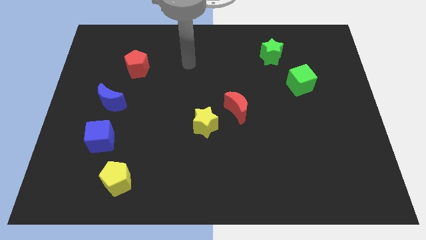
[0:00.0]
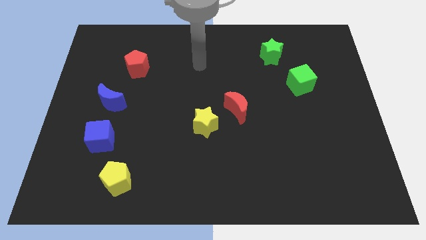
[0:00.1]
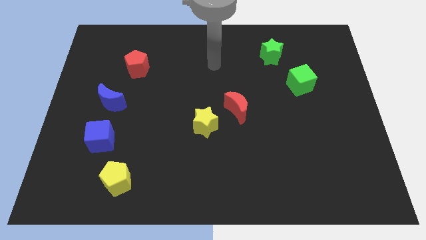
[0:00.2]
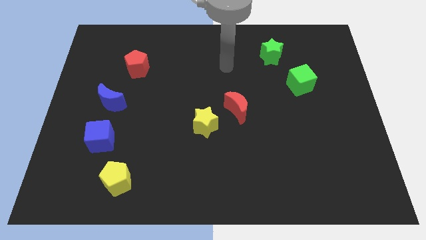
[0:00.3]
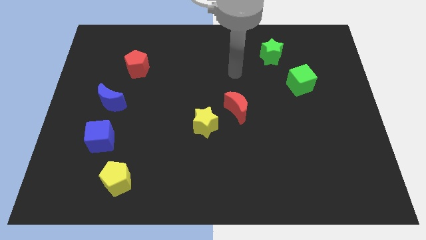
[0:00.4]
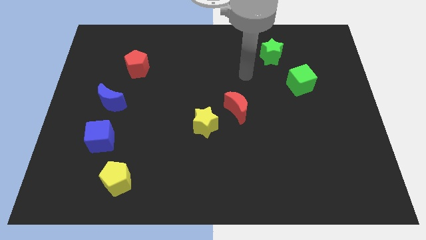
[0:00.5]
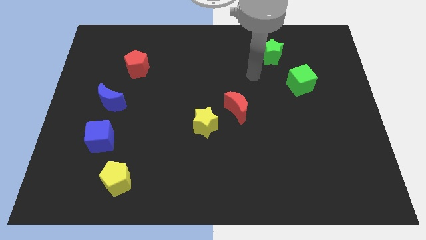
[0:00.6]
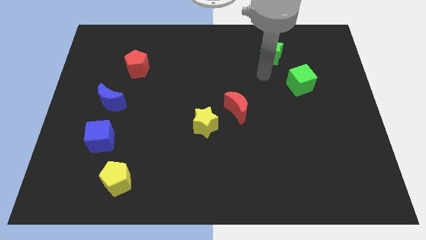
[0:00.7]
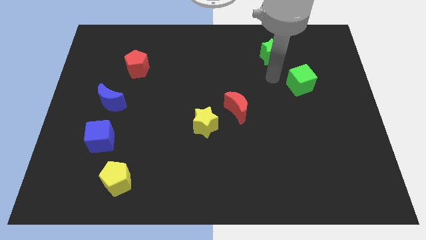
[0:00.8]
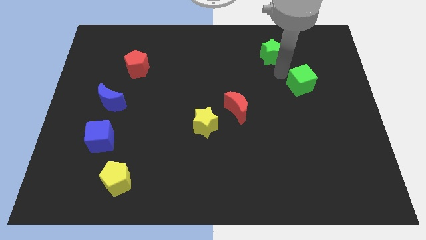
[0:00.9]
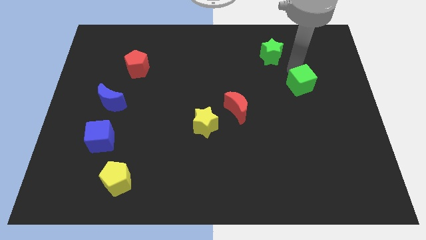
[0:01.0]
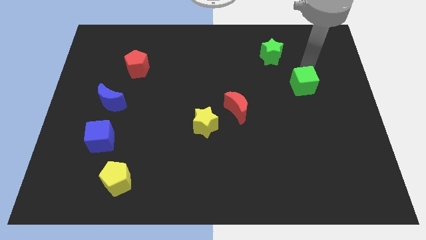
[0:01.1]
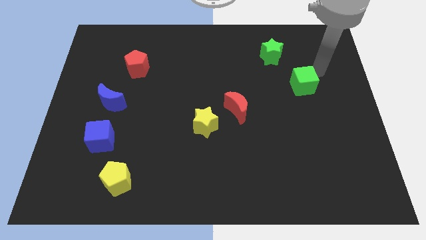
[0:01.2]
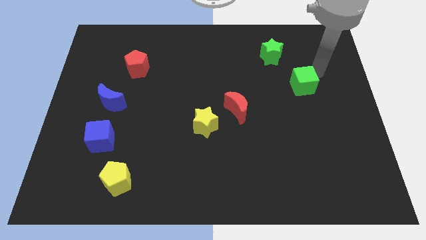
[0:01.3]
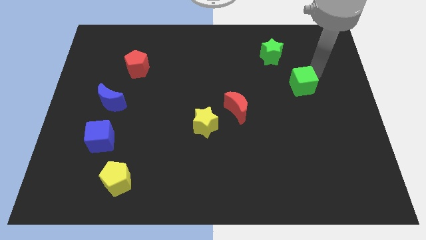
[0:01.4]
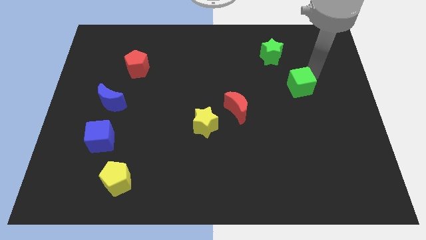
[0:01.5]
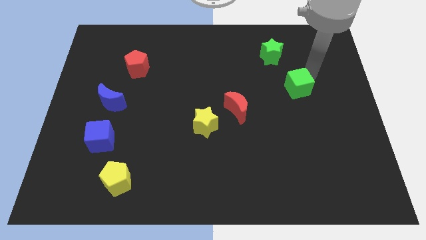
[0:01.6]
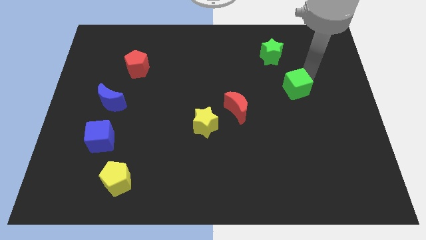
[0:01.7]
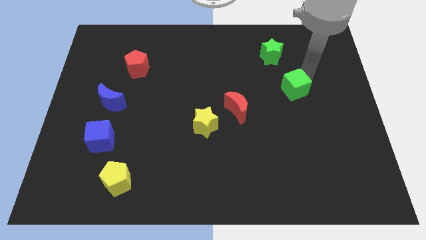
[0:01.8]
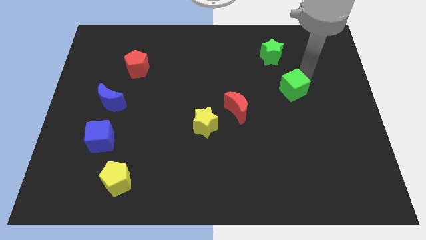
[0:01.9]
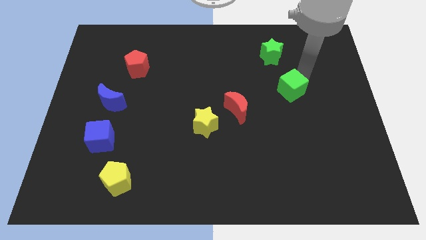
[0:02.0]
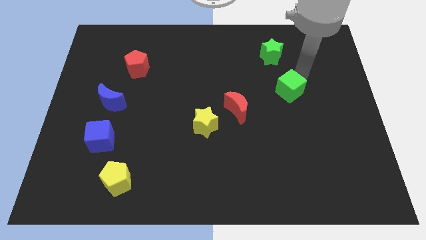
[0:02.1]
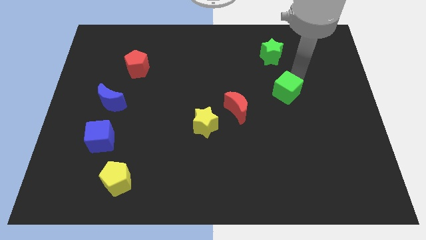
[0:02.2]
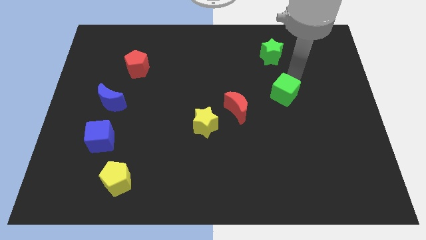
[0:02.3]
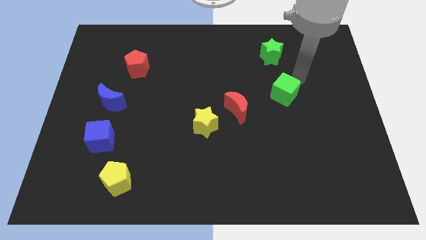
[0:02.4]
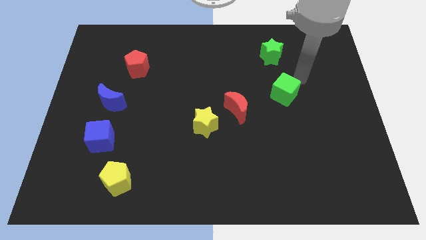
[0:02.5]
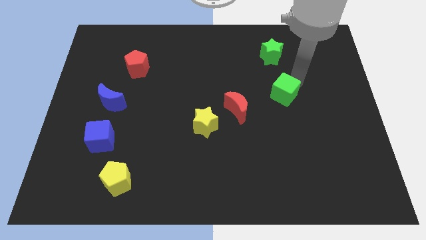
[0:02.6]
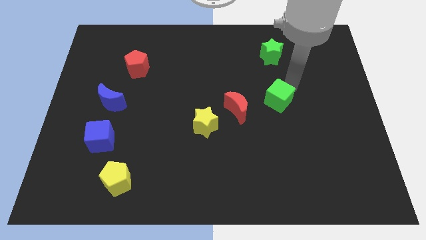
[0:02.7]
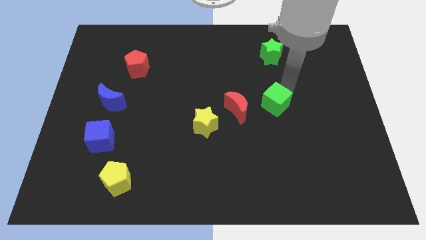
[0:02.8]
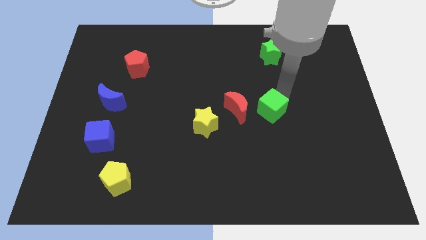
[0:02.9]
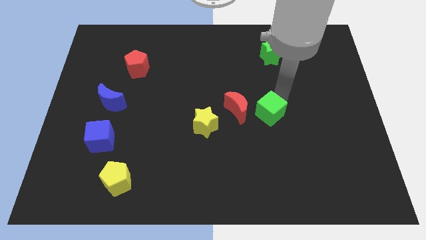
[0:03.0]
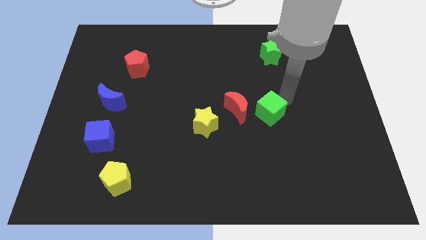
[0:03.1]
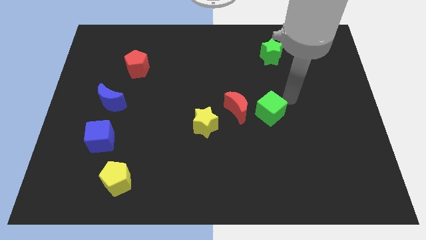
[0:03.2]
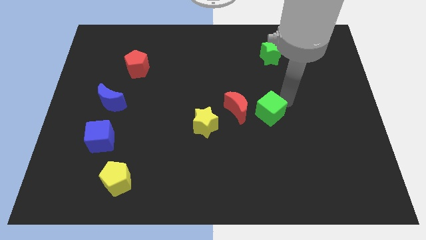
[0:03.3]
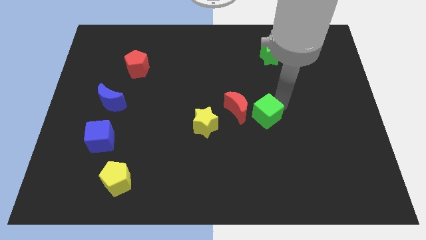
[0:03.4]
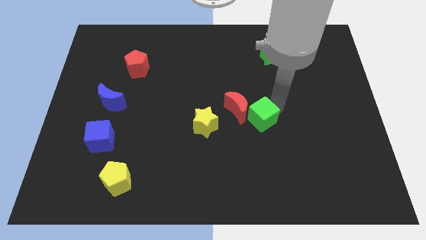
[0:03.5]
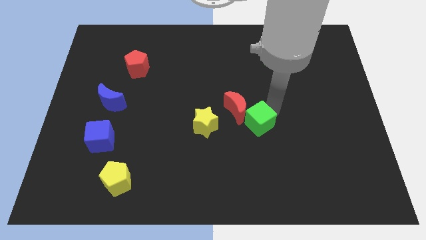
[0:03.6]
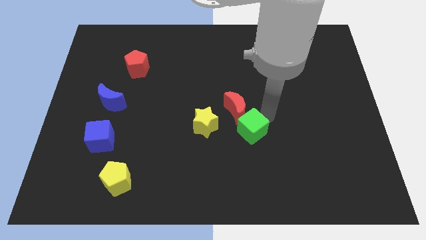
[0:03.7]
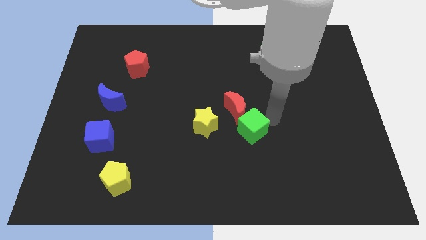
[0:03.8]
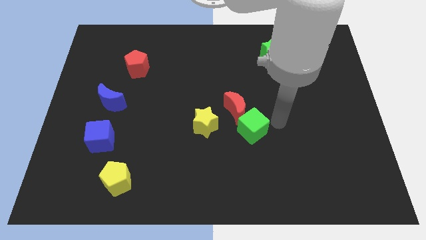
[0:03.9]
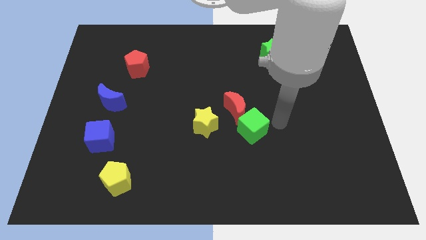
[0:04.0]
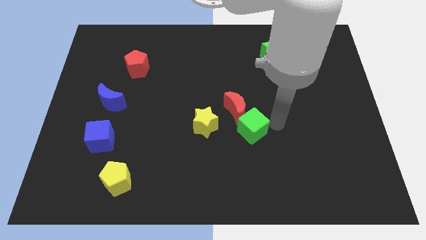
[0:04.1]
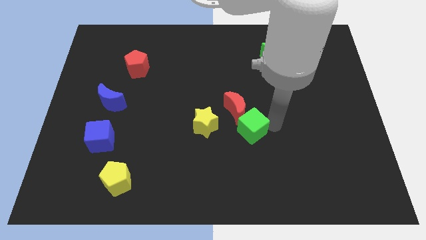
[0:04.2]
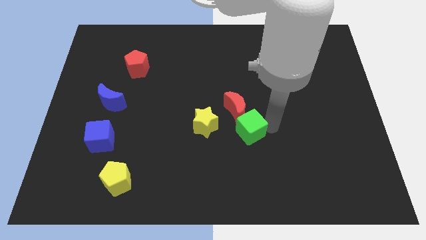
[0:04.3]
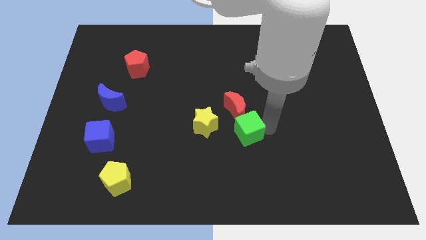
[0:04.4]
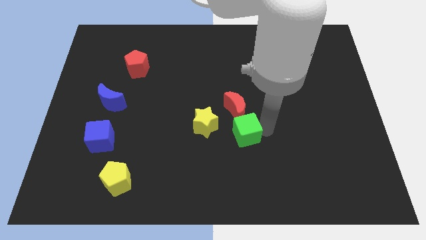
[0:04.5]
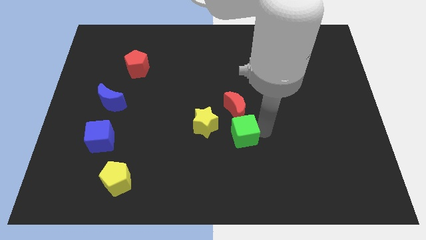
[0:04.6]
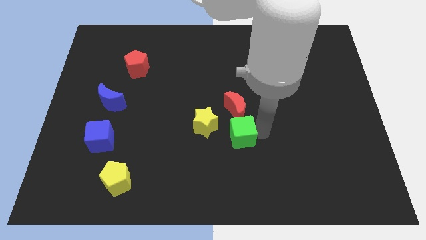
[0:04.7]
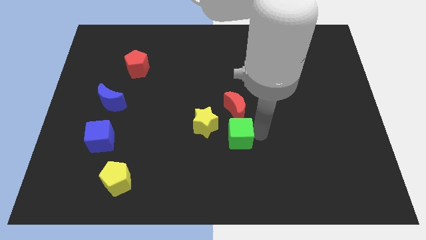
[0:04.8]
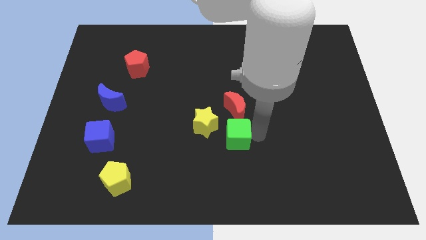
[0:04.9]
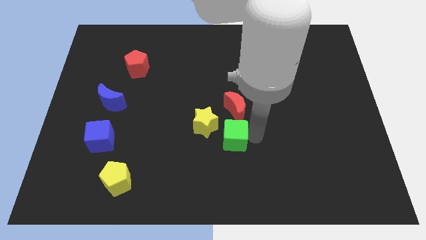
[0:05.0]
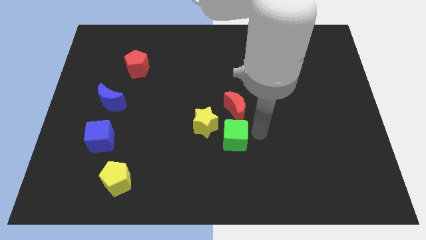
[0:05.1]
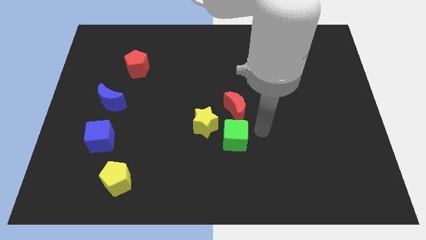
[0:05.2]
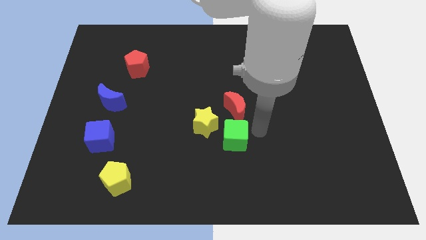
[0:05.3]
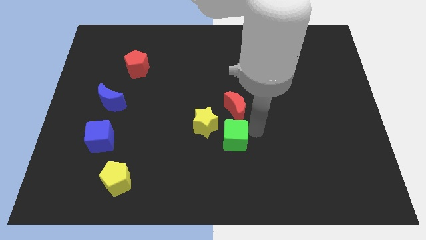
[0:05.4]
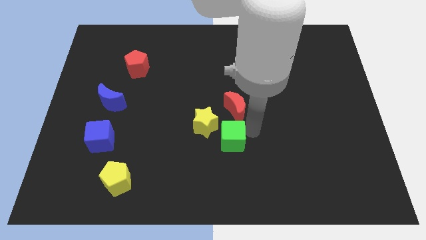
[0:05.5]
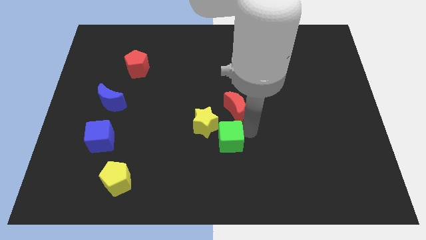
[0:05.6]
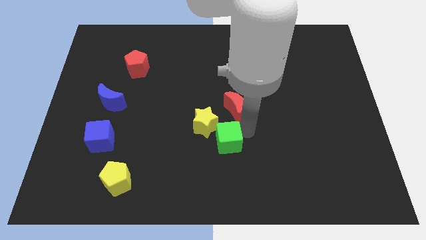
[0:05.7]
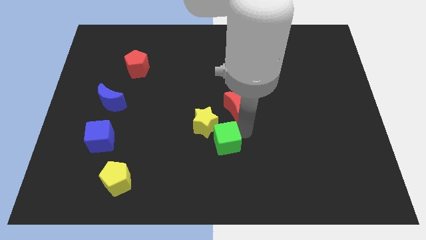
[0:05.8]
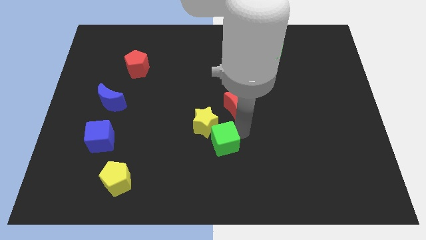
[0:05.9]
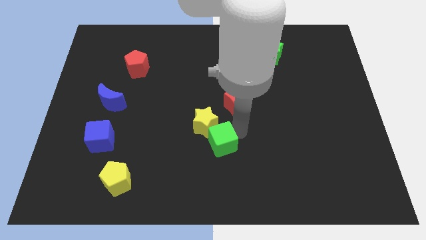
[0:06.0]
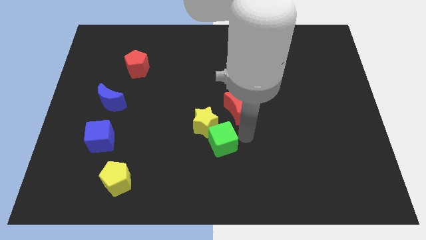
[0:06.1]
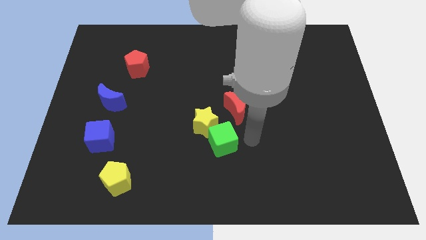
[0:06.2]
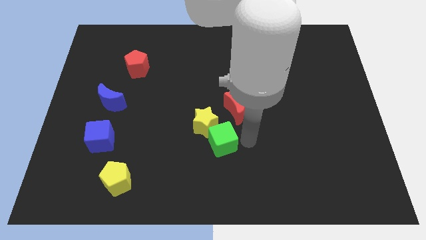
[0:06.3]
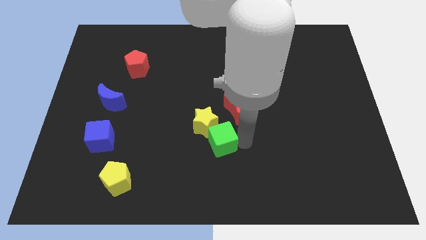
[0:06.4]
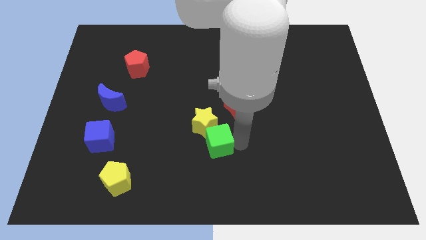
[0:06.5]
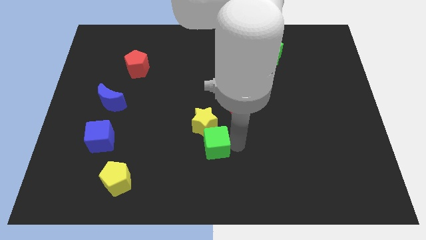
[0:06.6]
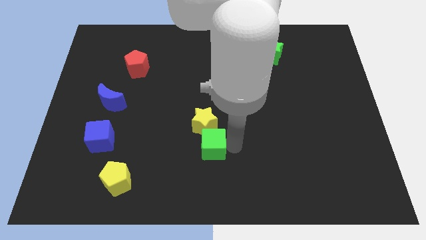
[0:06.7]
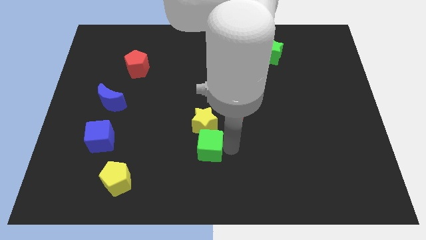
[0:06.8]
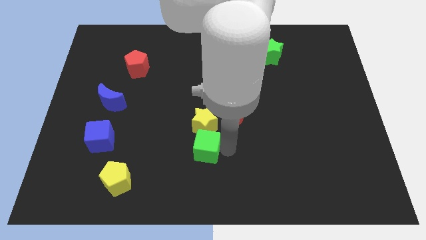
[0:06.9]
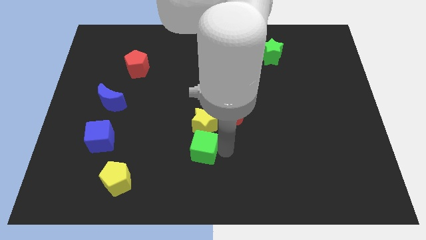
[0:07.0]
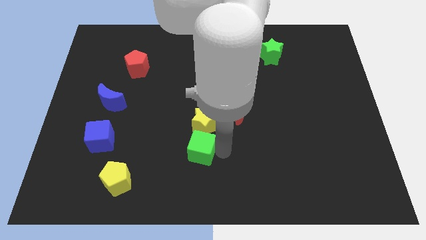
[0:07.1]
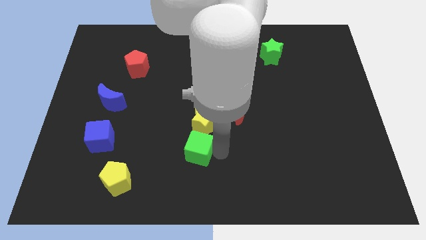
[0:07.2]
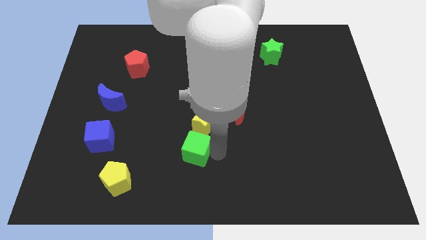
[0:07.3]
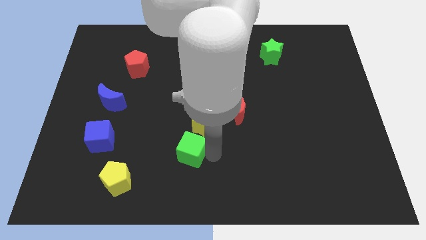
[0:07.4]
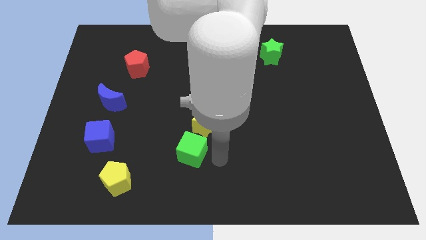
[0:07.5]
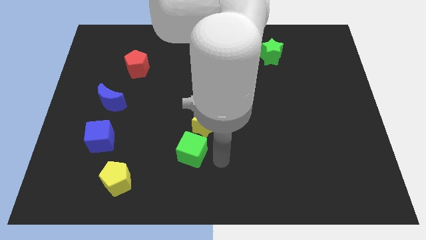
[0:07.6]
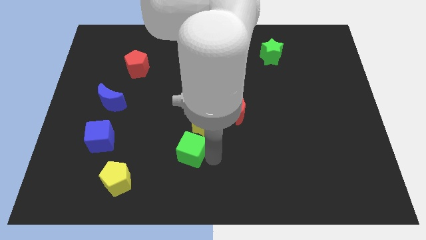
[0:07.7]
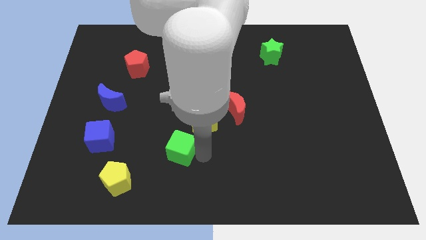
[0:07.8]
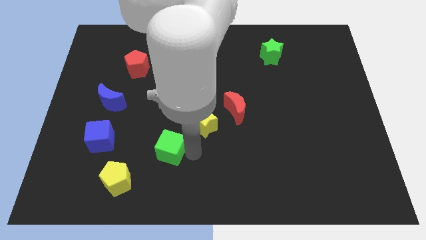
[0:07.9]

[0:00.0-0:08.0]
put the green cube to the right side of the blue cube
